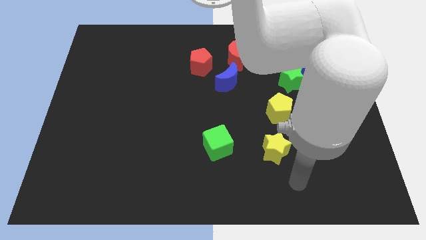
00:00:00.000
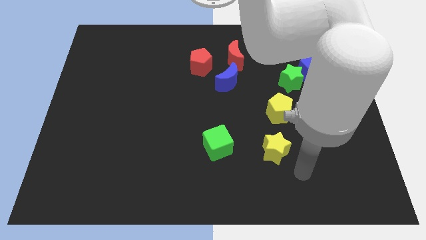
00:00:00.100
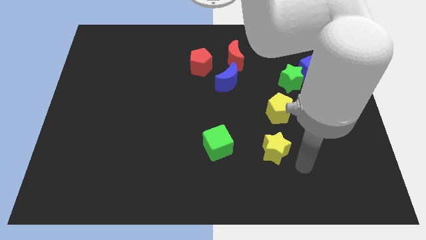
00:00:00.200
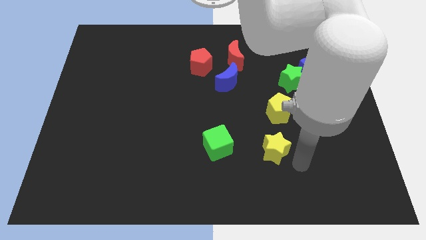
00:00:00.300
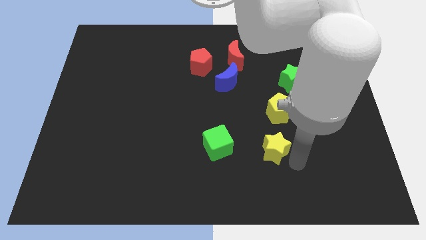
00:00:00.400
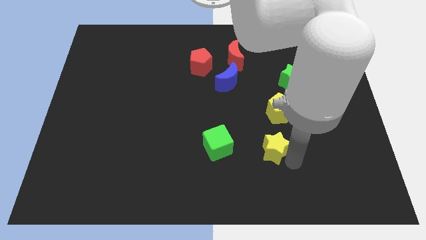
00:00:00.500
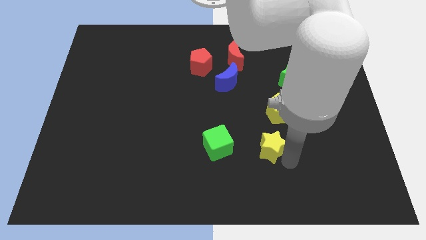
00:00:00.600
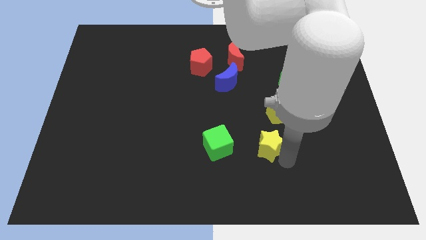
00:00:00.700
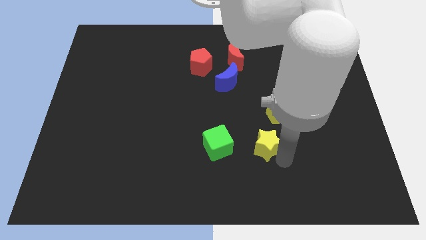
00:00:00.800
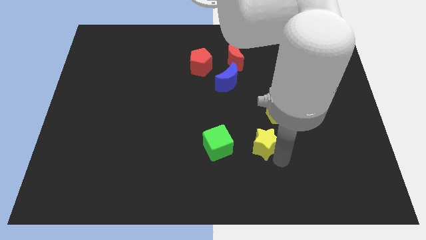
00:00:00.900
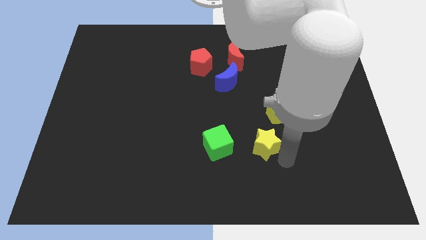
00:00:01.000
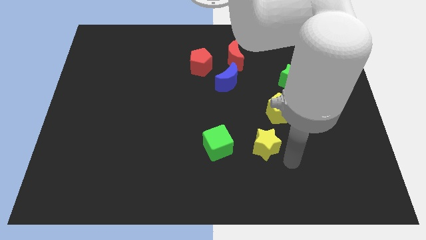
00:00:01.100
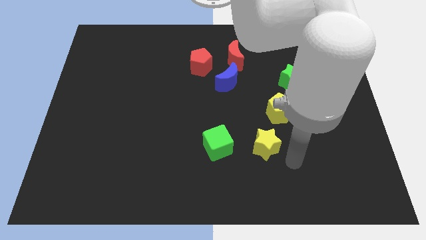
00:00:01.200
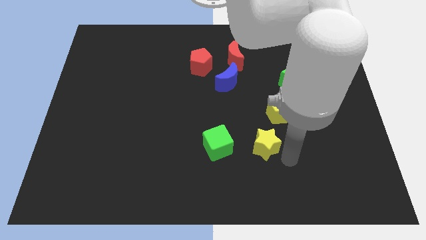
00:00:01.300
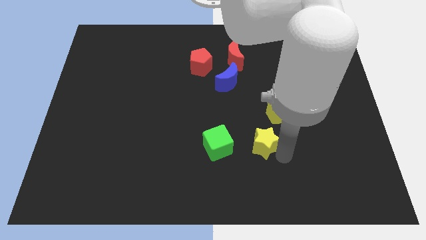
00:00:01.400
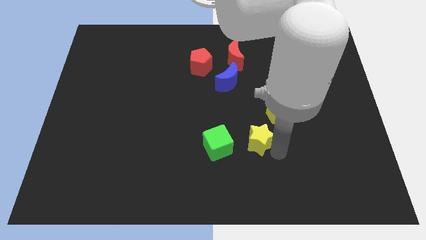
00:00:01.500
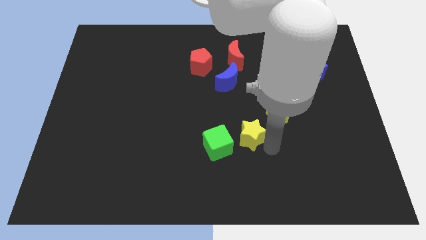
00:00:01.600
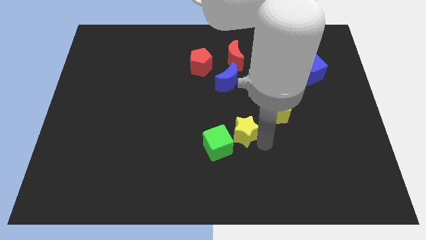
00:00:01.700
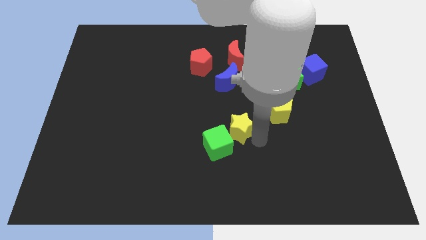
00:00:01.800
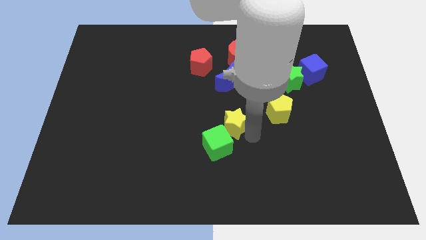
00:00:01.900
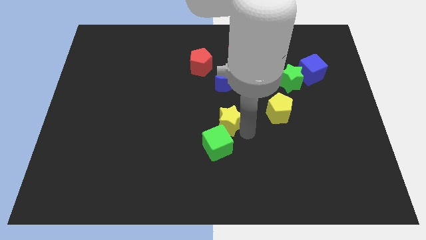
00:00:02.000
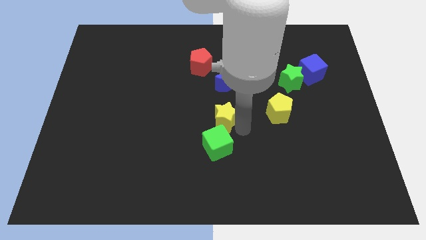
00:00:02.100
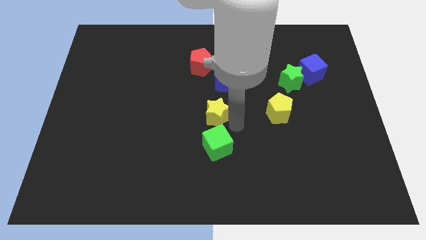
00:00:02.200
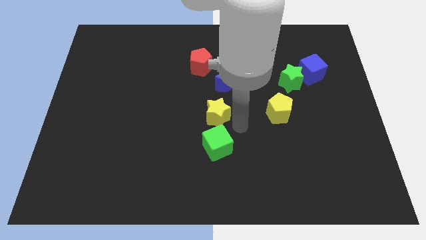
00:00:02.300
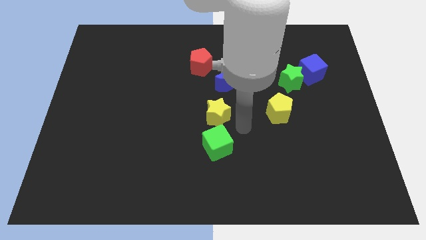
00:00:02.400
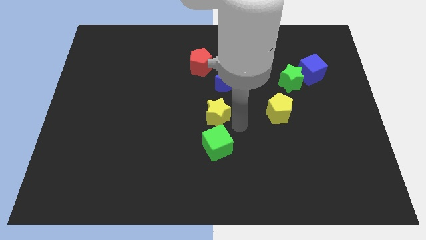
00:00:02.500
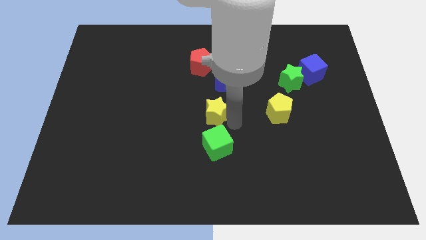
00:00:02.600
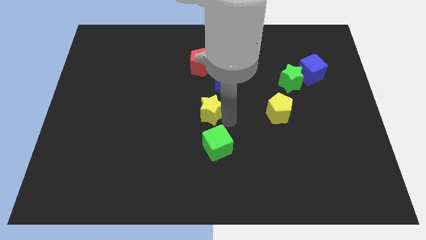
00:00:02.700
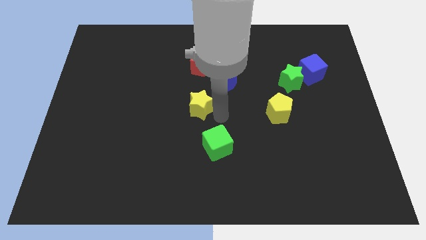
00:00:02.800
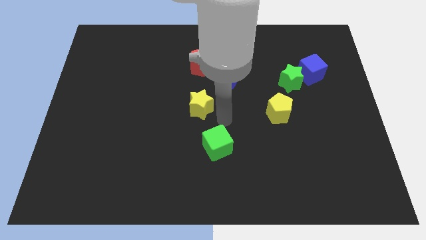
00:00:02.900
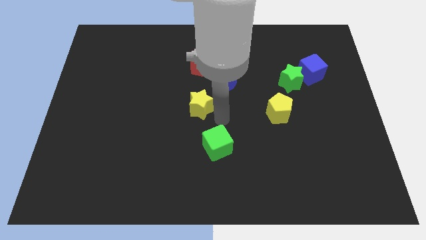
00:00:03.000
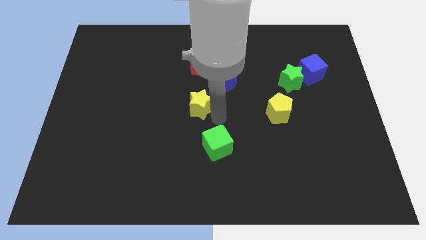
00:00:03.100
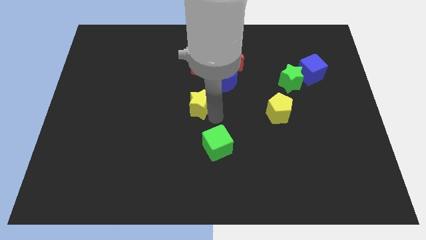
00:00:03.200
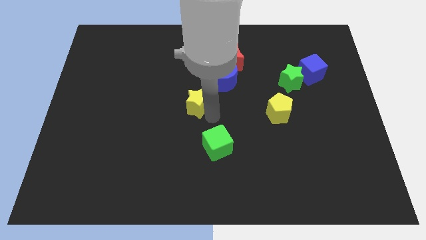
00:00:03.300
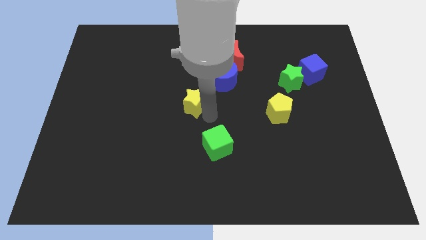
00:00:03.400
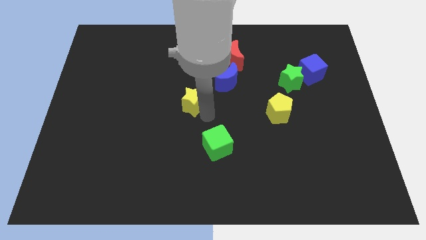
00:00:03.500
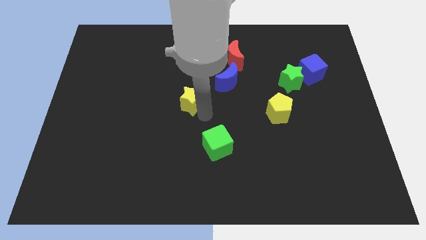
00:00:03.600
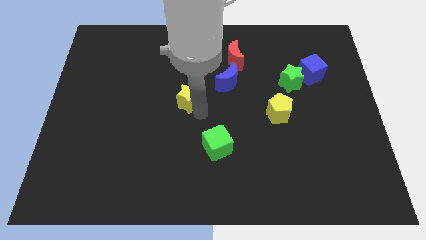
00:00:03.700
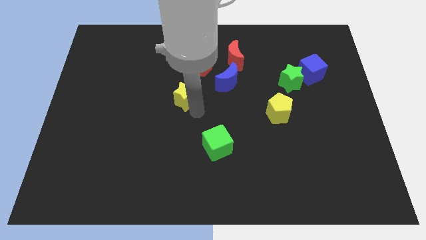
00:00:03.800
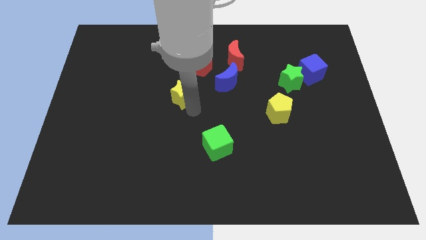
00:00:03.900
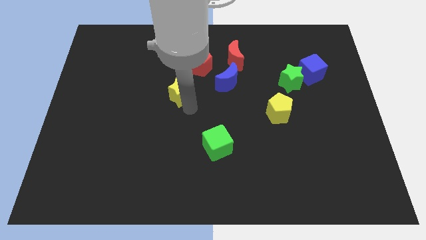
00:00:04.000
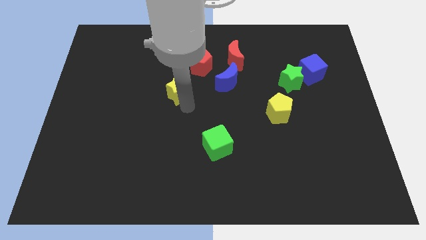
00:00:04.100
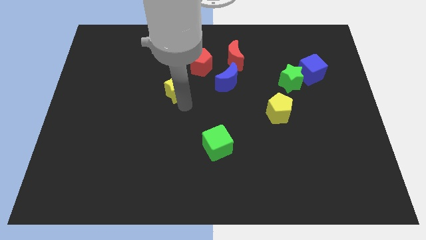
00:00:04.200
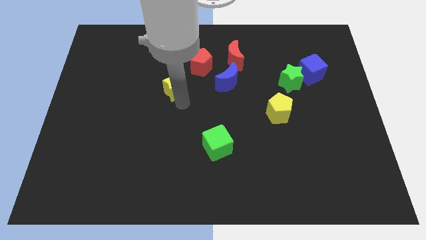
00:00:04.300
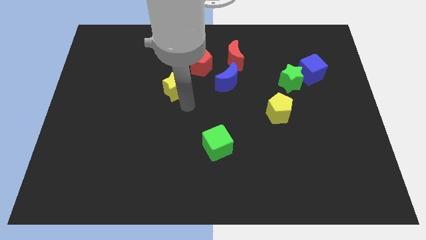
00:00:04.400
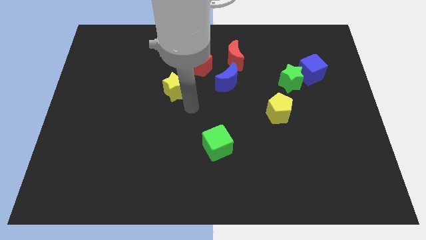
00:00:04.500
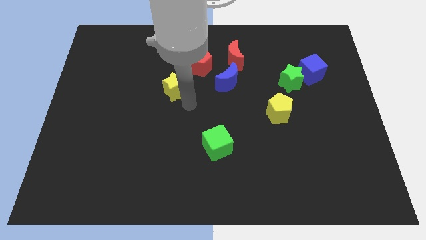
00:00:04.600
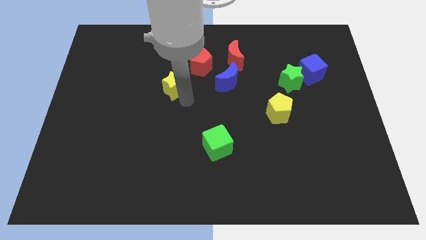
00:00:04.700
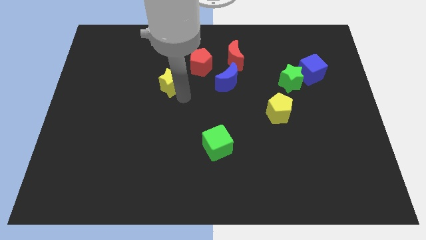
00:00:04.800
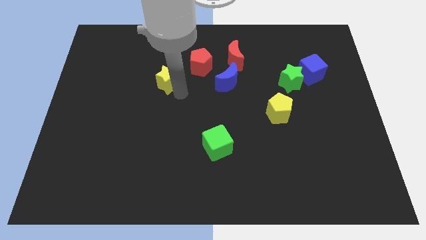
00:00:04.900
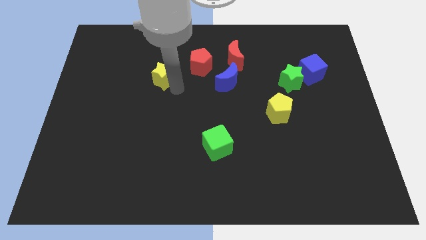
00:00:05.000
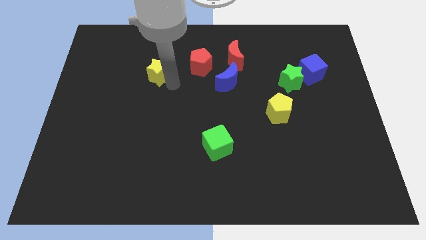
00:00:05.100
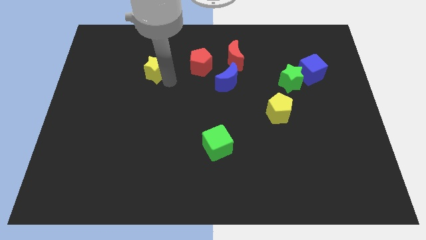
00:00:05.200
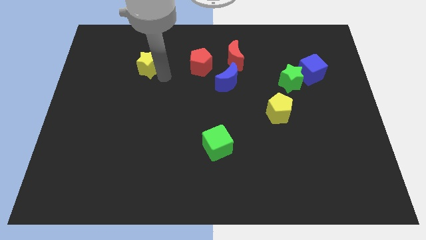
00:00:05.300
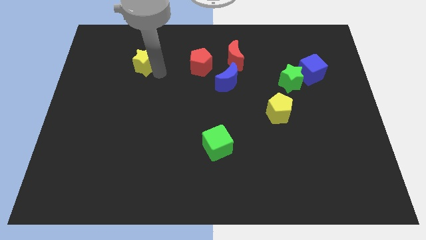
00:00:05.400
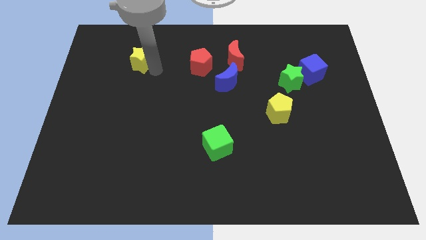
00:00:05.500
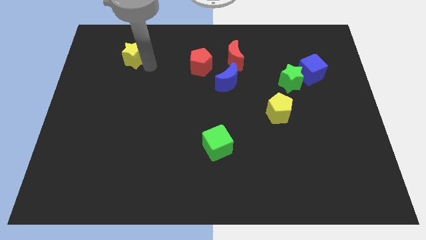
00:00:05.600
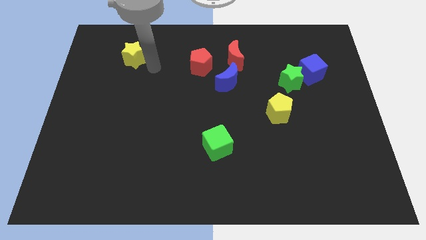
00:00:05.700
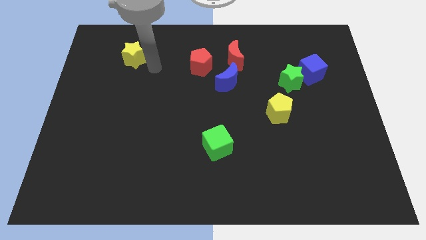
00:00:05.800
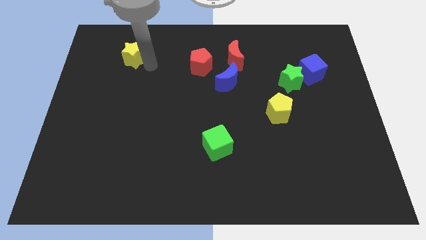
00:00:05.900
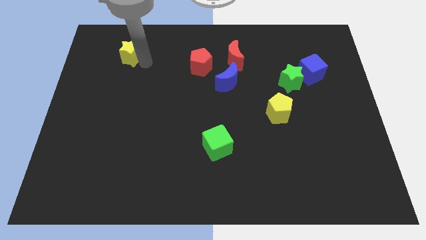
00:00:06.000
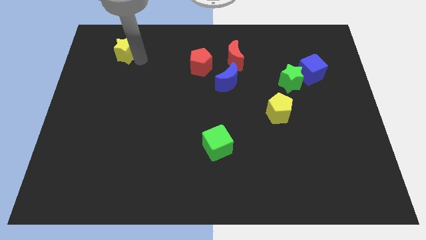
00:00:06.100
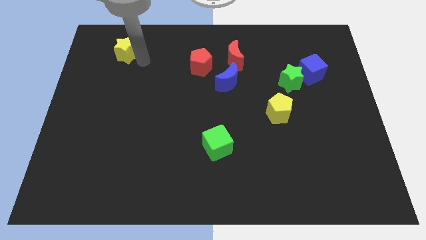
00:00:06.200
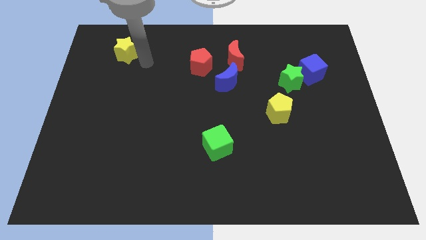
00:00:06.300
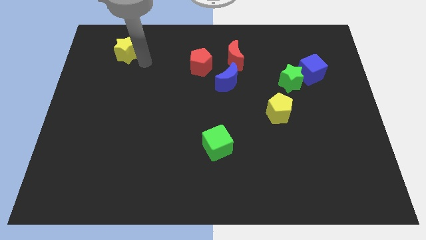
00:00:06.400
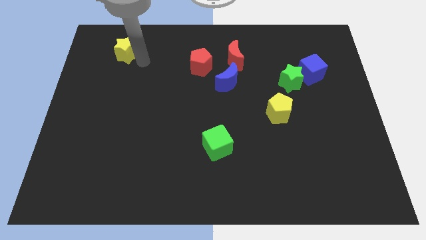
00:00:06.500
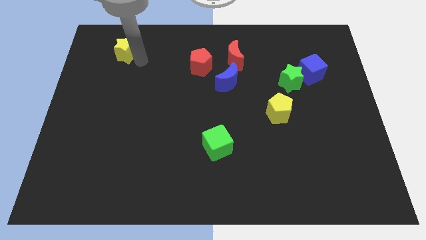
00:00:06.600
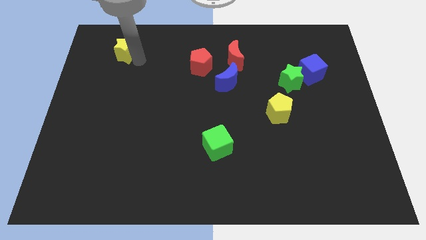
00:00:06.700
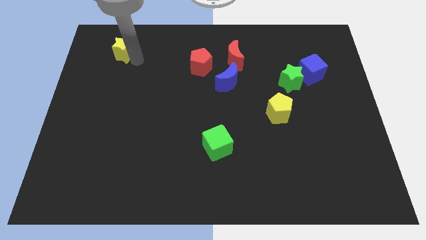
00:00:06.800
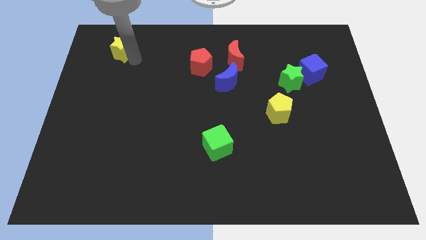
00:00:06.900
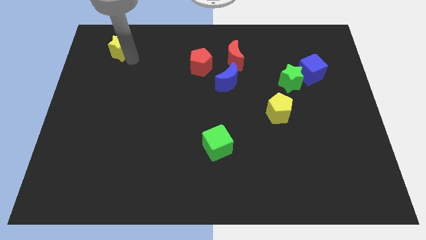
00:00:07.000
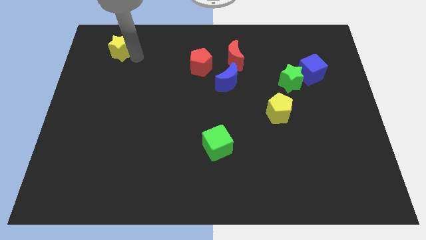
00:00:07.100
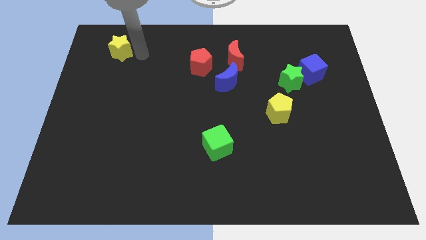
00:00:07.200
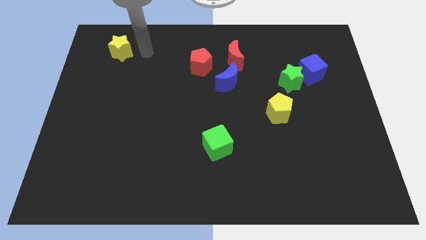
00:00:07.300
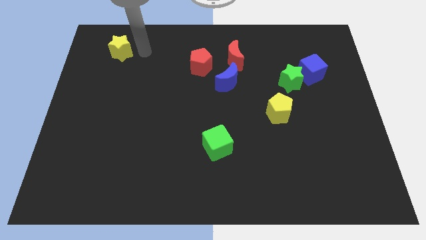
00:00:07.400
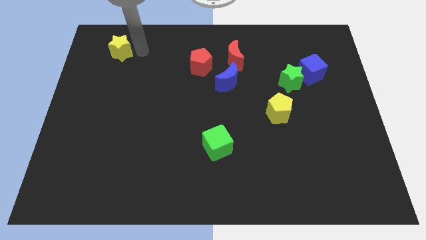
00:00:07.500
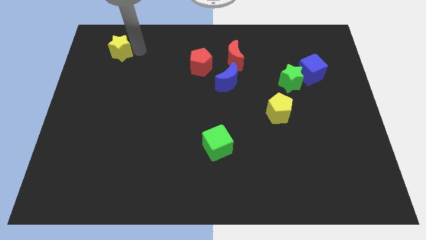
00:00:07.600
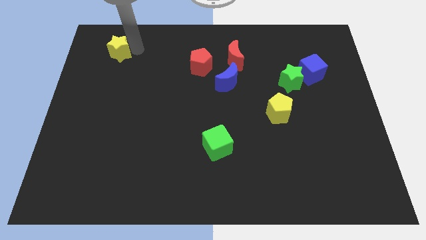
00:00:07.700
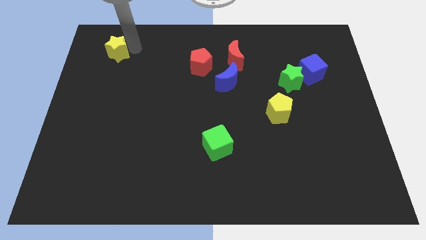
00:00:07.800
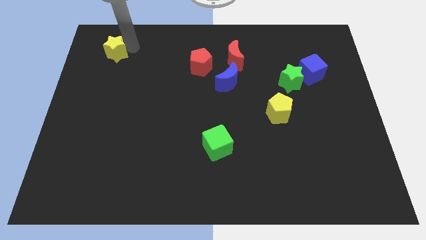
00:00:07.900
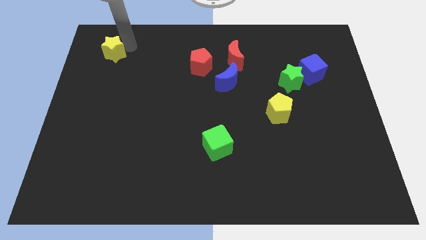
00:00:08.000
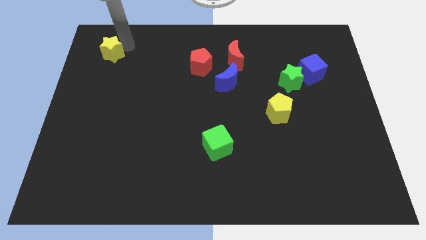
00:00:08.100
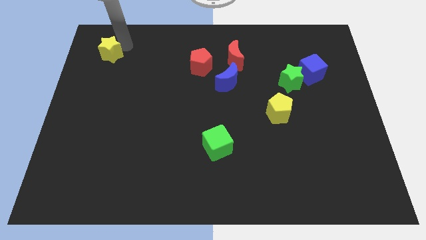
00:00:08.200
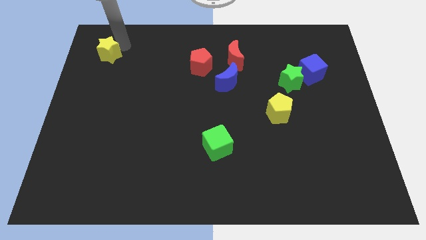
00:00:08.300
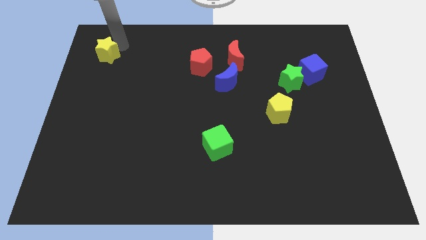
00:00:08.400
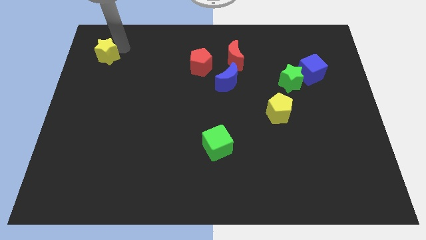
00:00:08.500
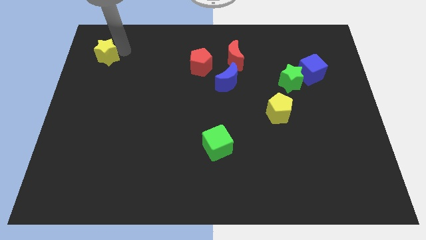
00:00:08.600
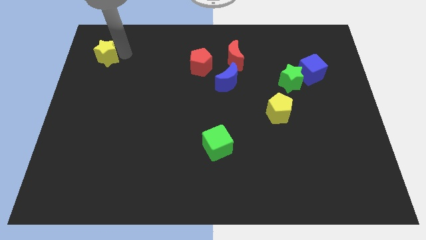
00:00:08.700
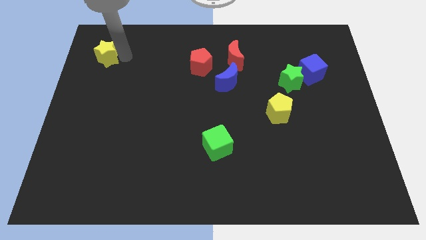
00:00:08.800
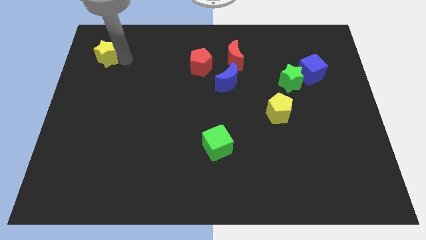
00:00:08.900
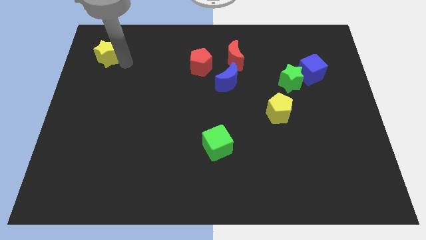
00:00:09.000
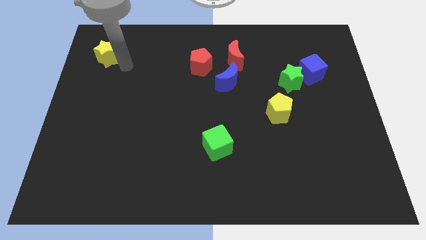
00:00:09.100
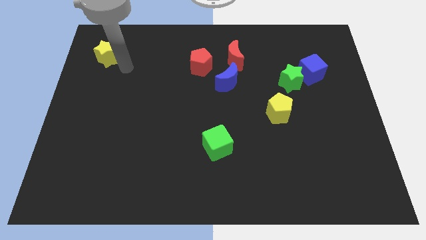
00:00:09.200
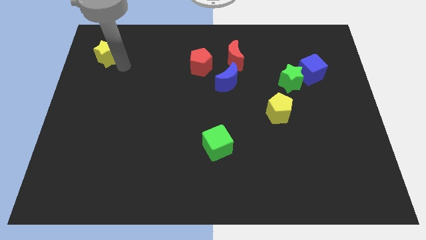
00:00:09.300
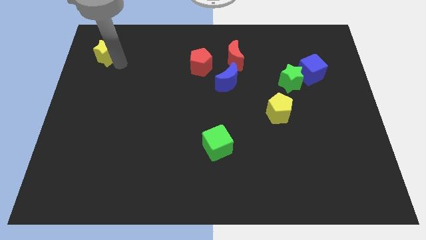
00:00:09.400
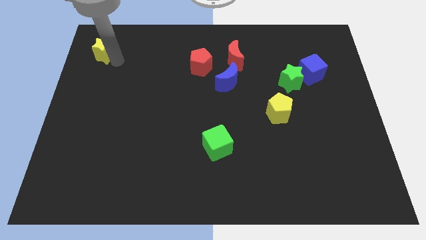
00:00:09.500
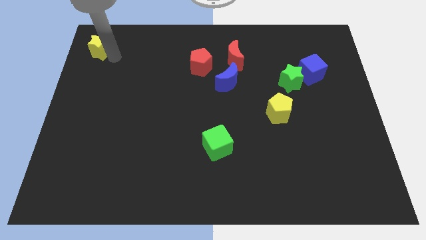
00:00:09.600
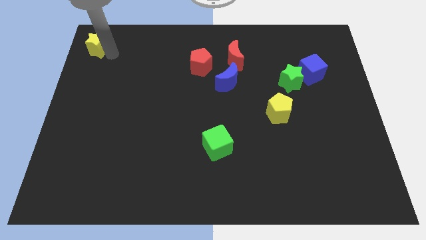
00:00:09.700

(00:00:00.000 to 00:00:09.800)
put the yellow star to the upper left corner
